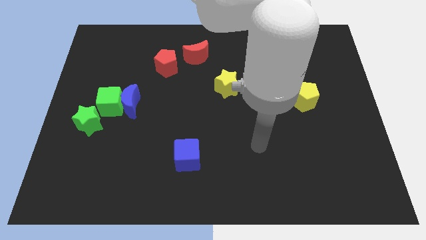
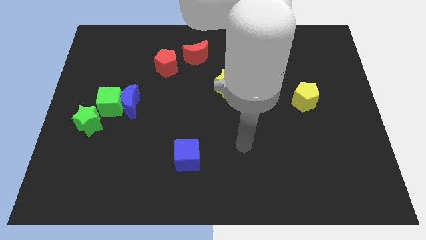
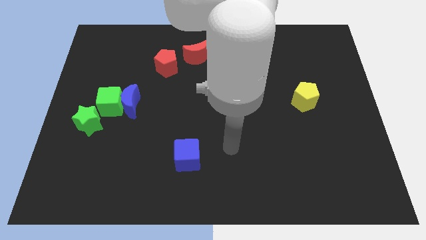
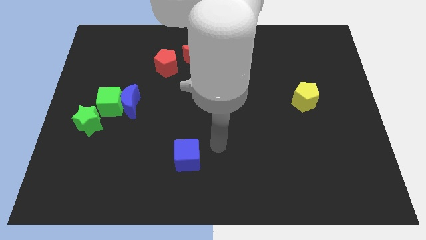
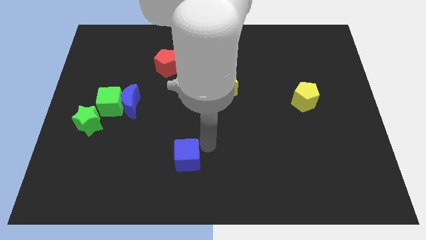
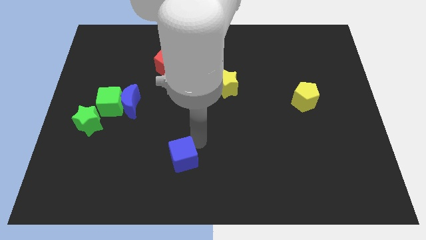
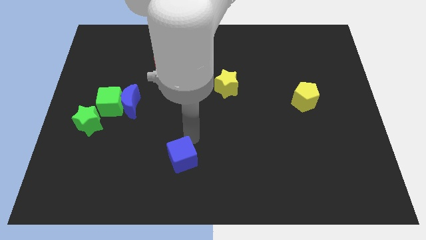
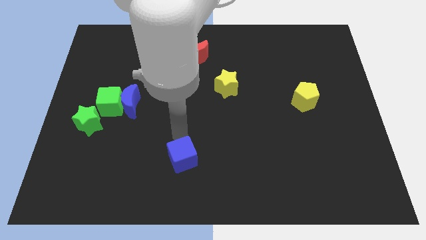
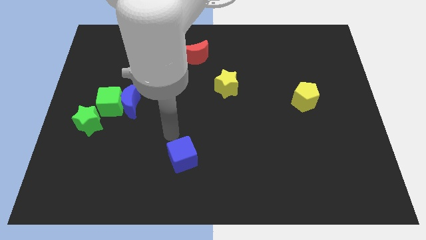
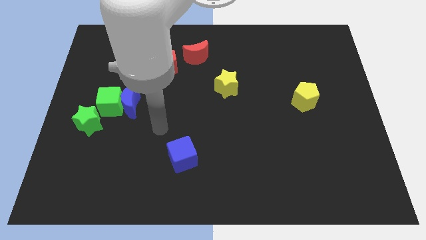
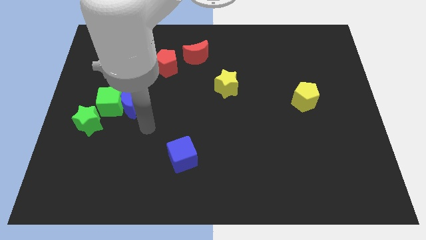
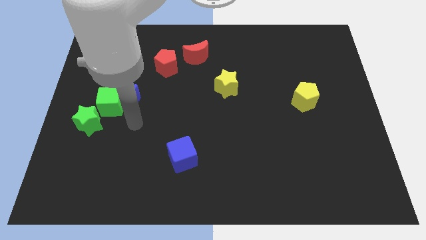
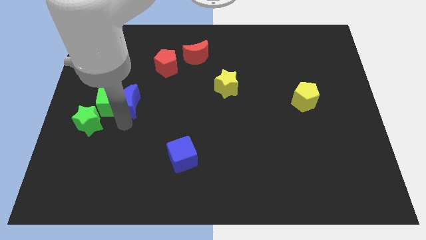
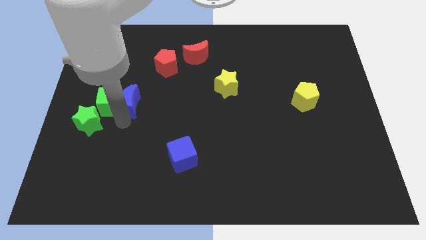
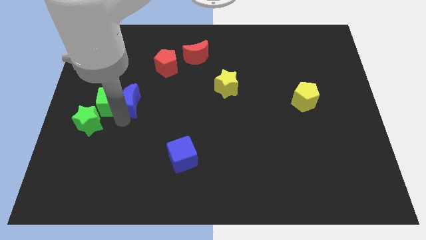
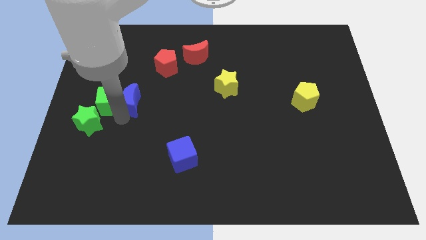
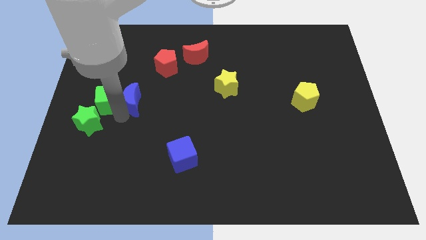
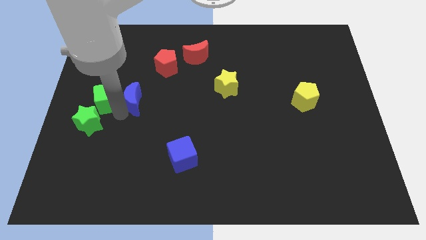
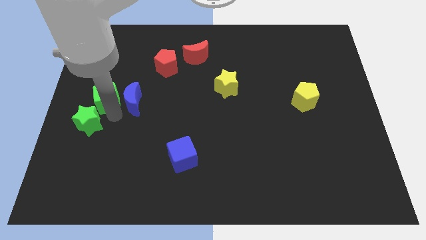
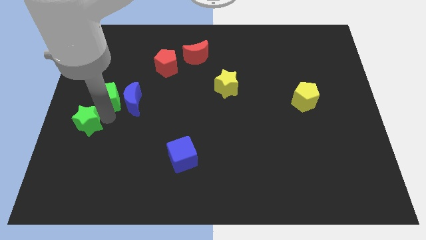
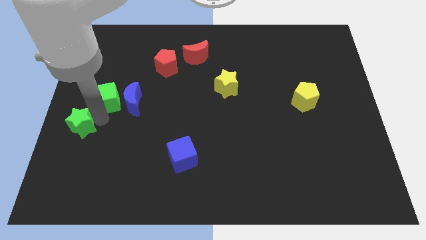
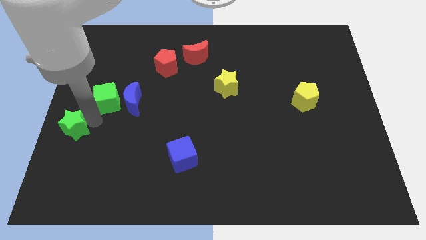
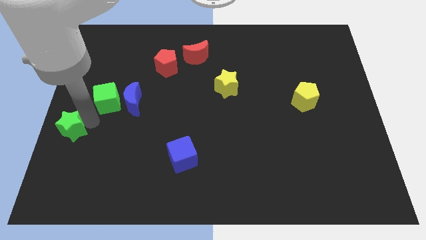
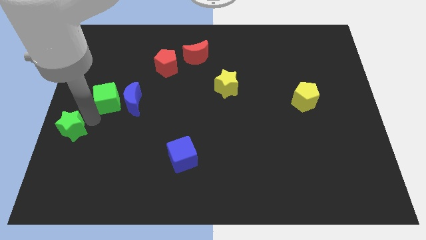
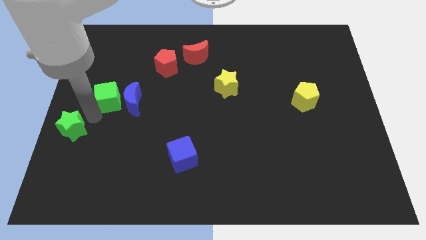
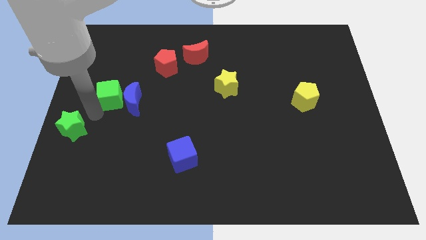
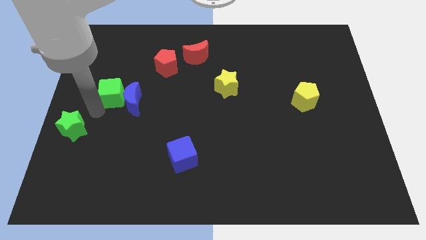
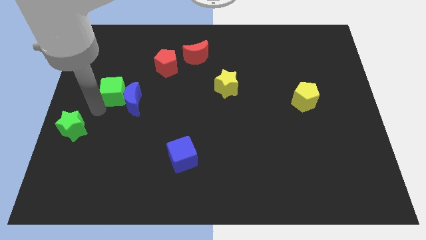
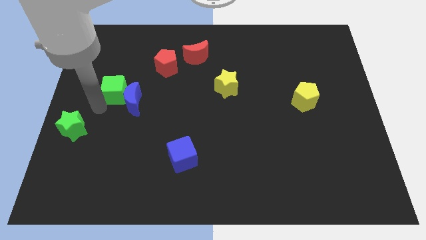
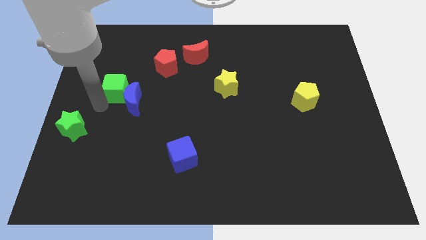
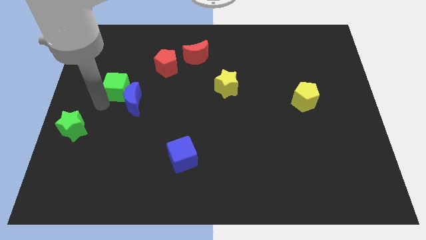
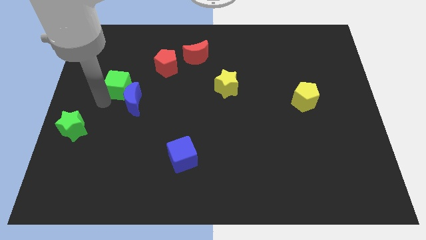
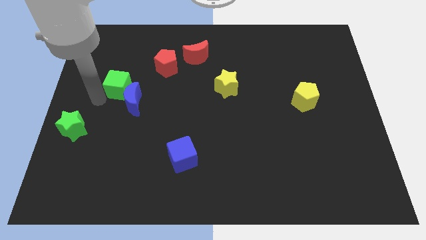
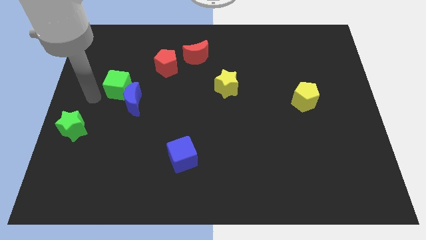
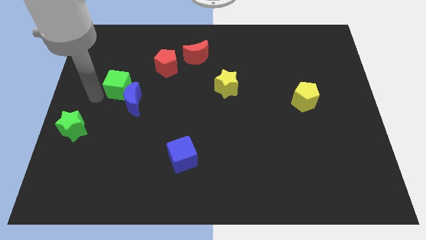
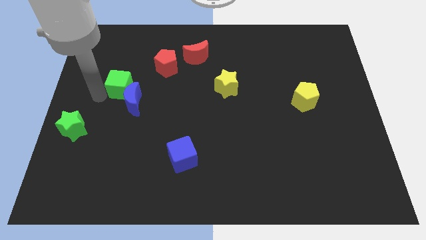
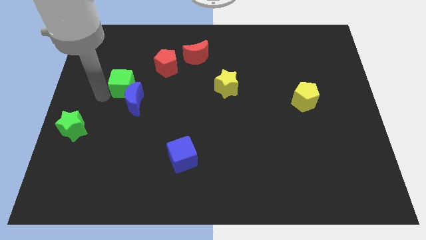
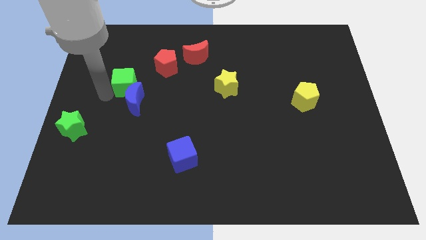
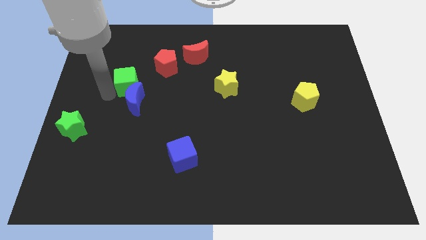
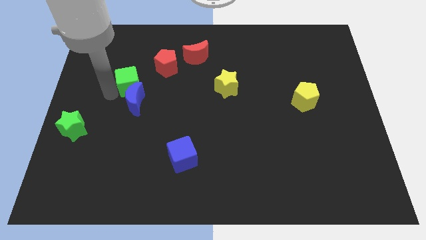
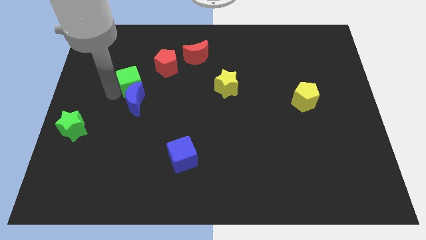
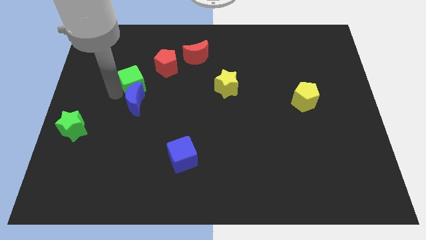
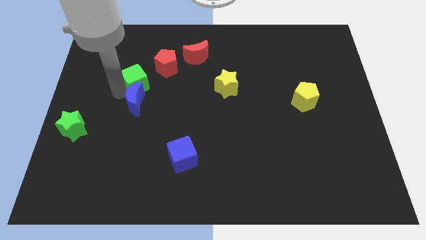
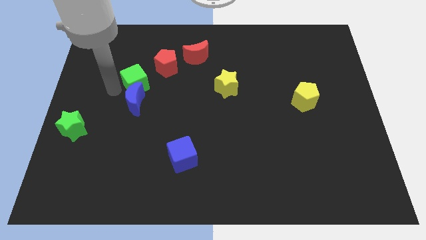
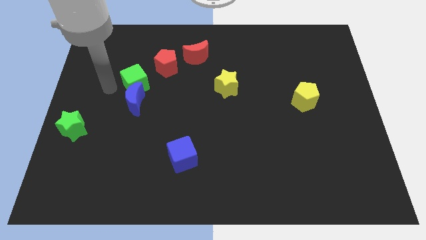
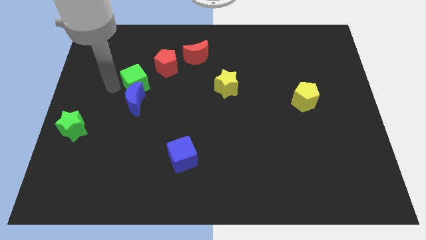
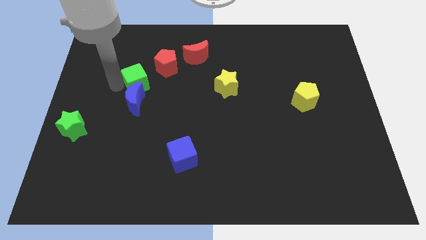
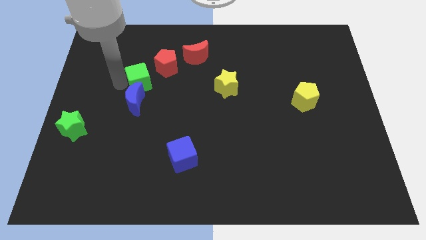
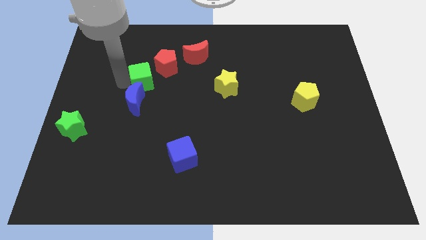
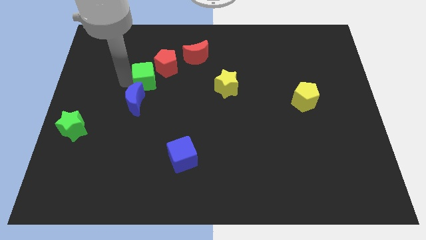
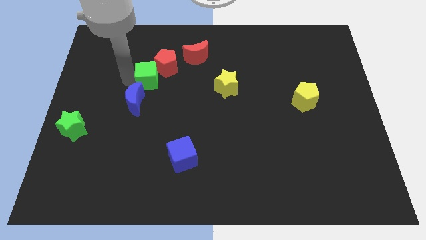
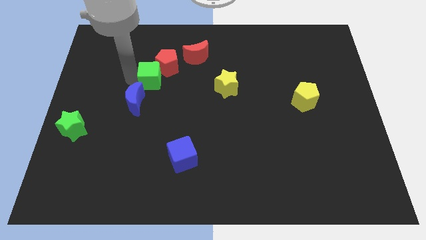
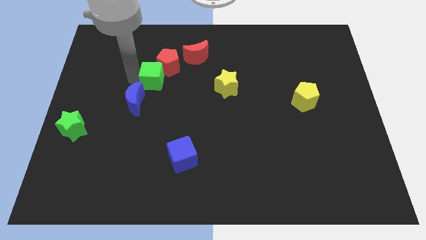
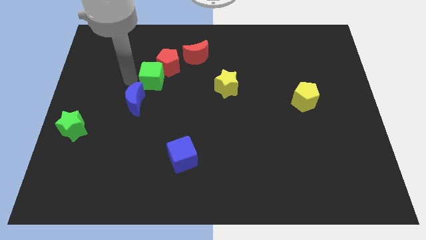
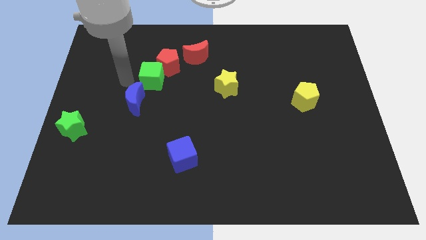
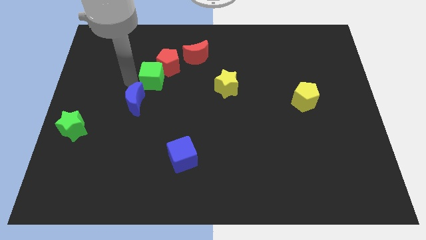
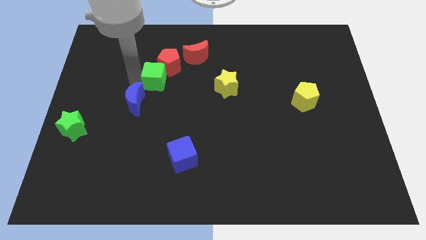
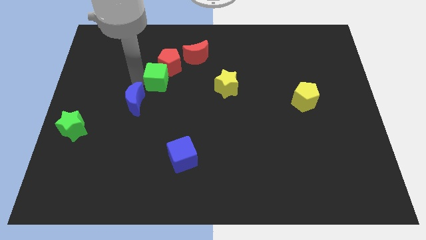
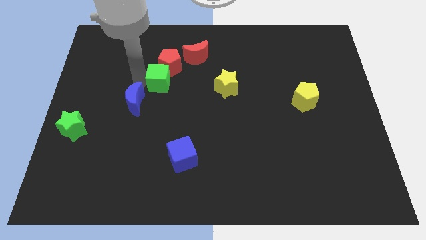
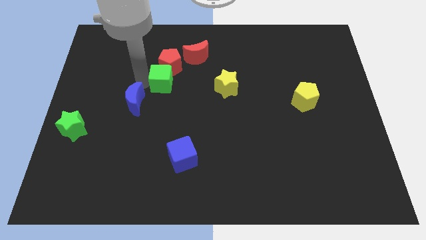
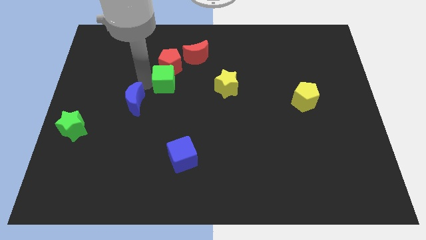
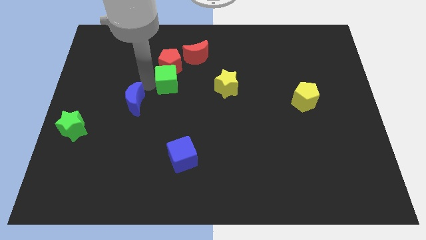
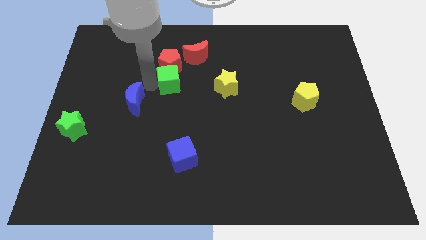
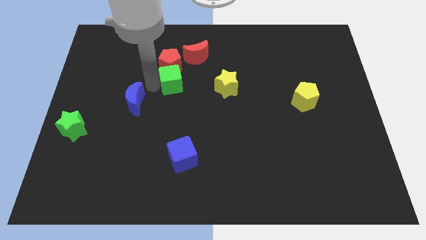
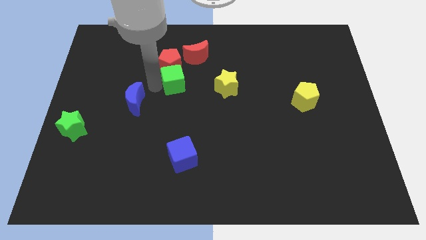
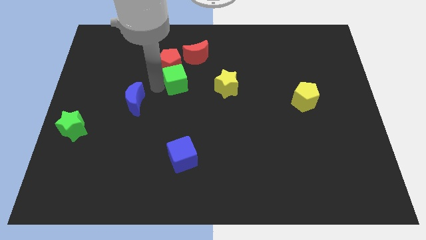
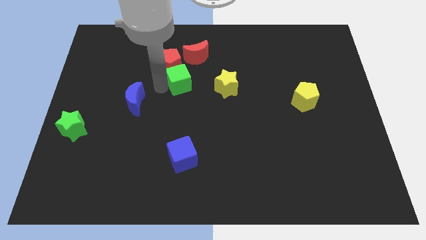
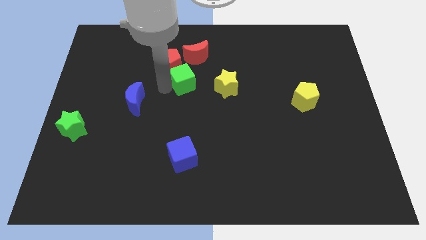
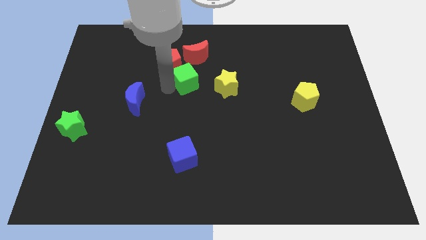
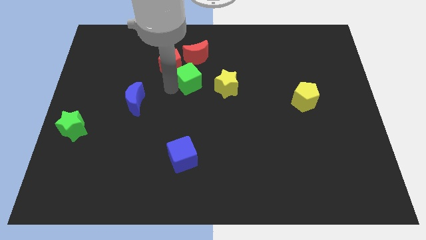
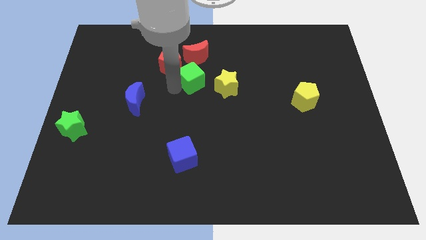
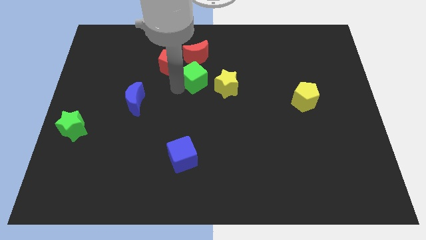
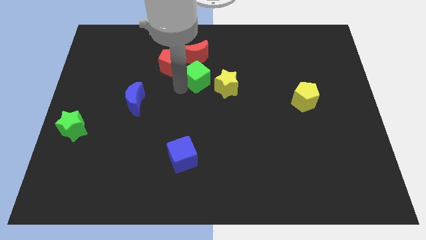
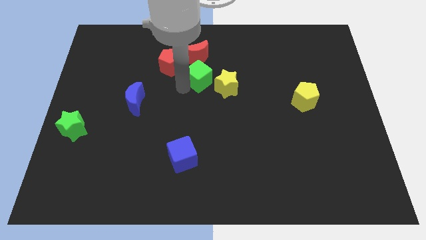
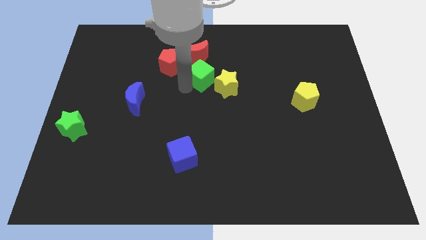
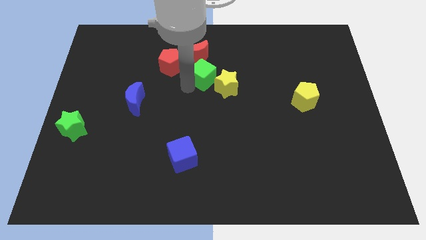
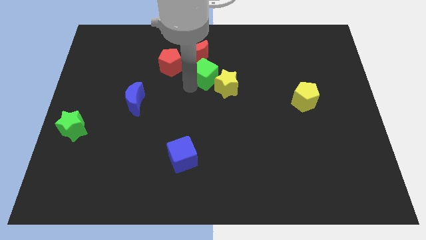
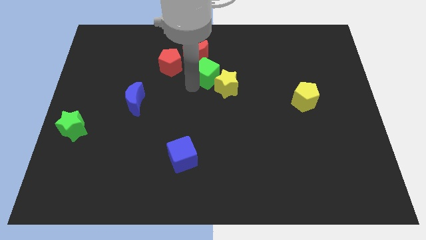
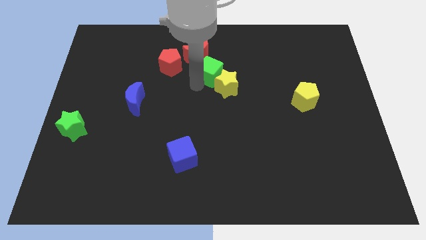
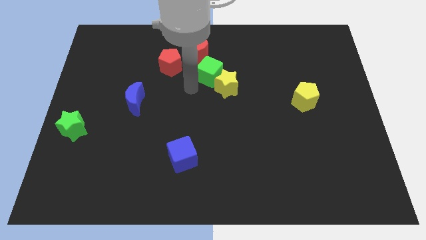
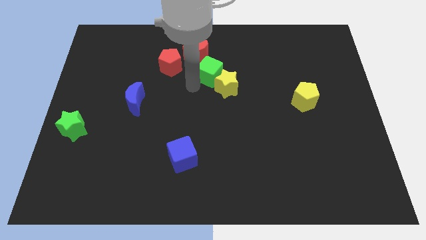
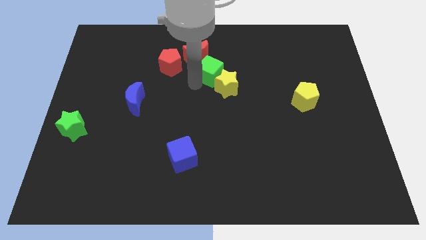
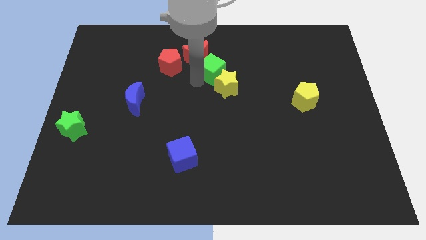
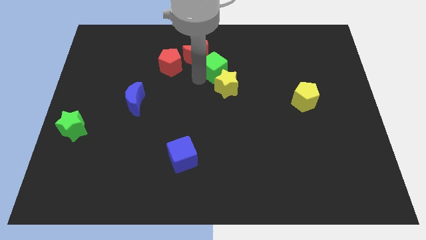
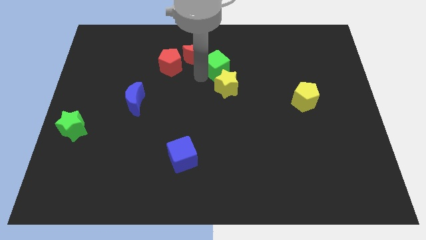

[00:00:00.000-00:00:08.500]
push the green cube right of the red moon
